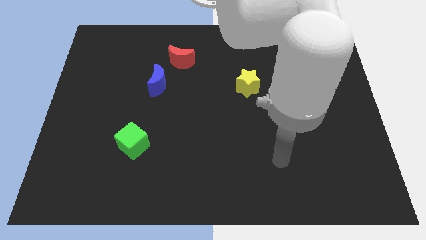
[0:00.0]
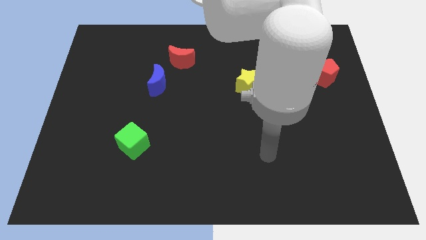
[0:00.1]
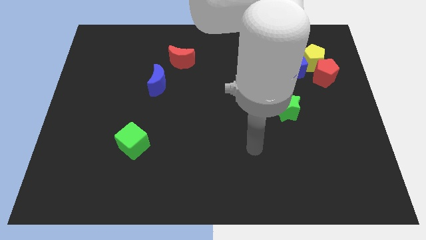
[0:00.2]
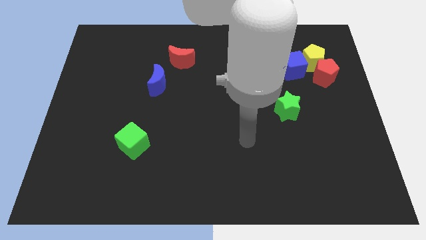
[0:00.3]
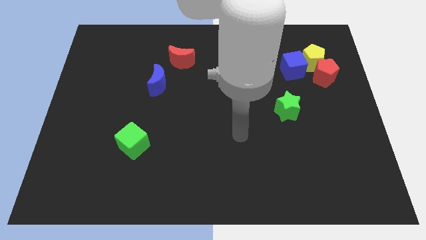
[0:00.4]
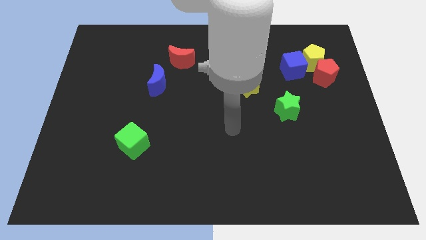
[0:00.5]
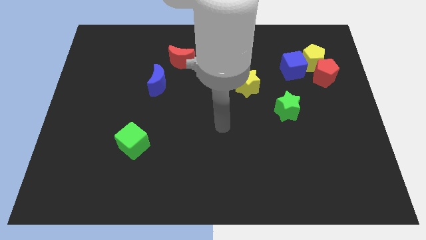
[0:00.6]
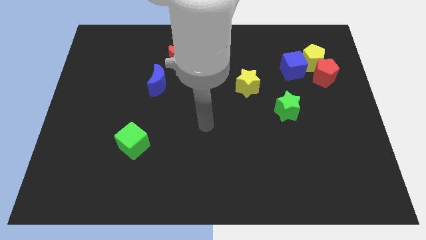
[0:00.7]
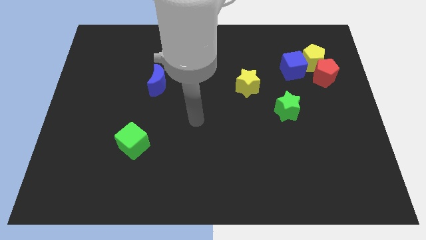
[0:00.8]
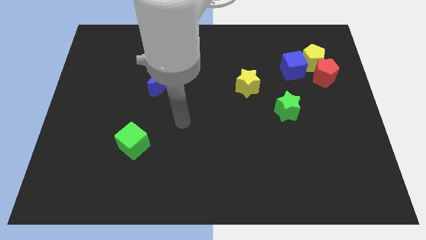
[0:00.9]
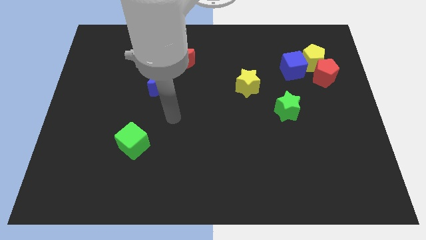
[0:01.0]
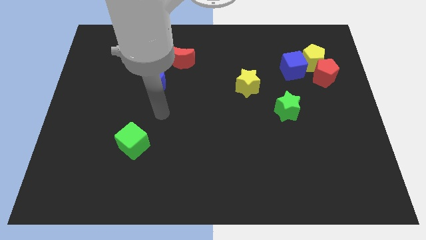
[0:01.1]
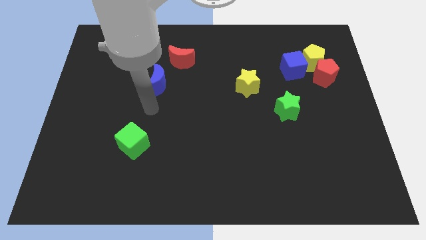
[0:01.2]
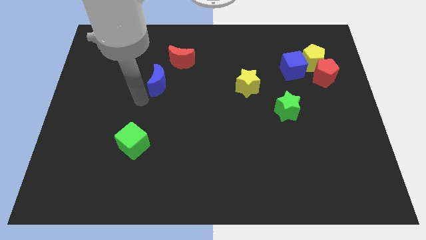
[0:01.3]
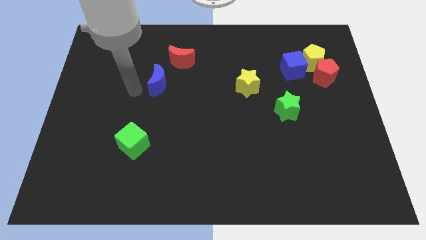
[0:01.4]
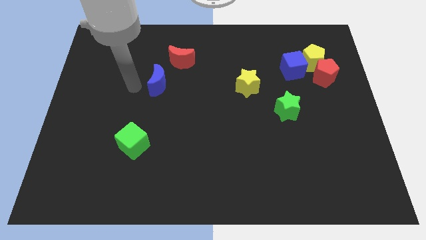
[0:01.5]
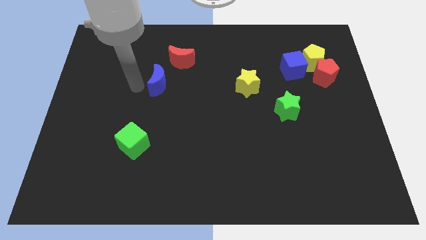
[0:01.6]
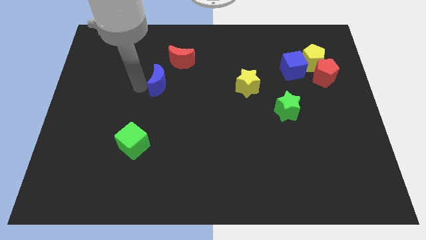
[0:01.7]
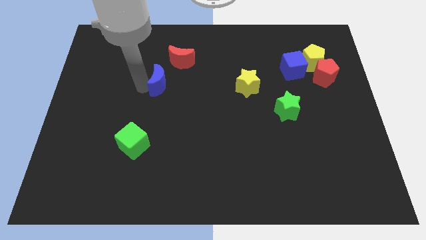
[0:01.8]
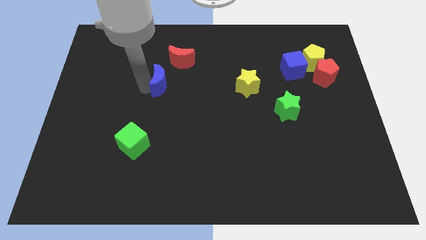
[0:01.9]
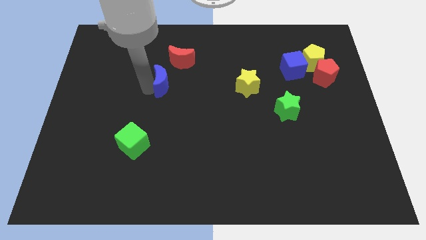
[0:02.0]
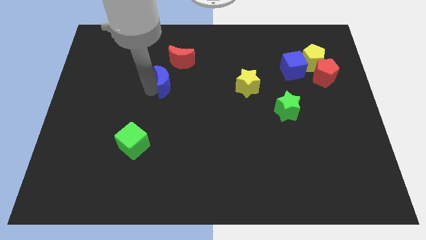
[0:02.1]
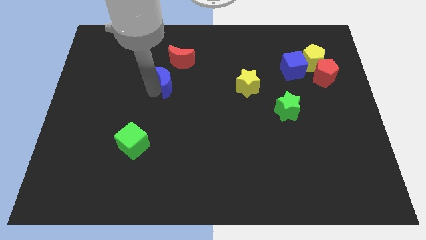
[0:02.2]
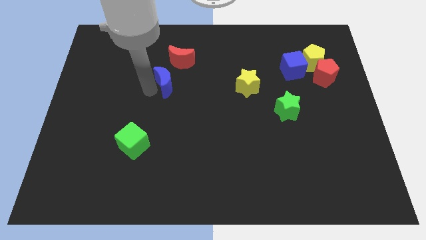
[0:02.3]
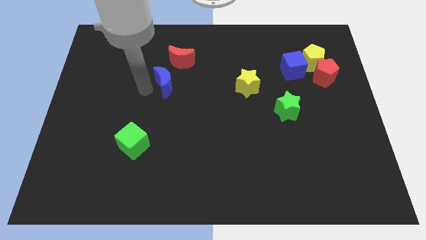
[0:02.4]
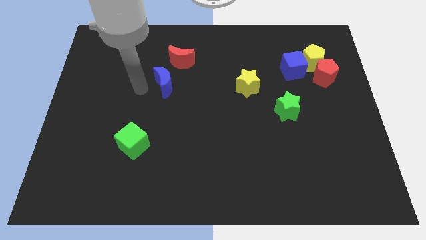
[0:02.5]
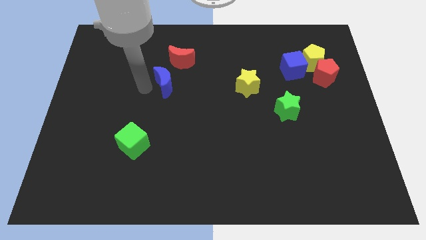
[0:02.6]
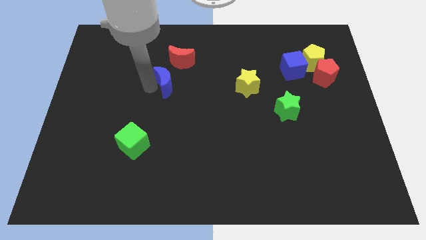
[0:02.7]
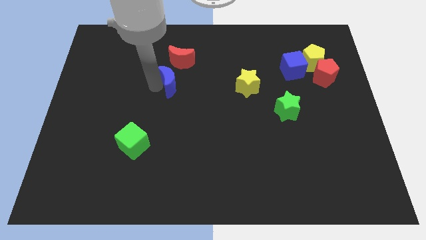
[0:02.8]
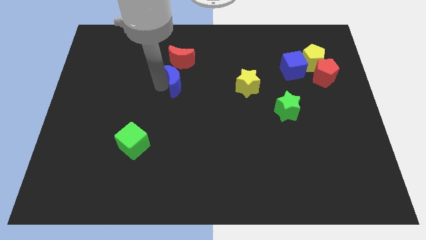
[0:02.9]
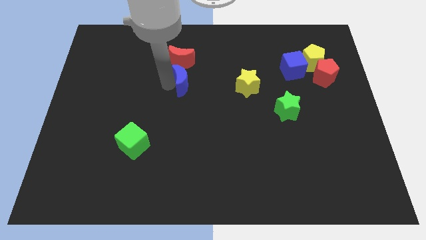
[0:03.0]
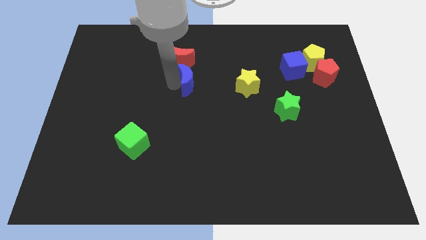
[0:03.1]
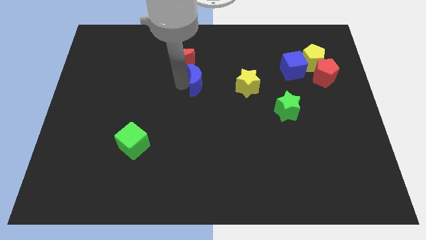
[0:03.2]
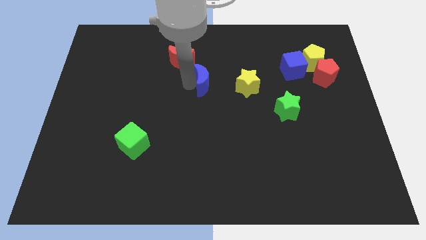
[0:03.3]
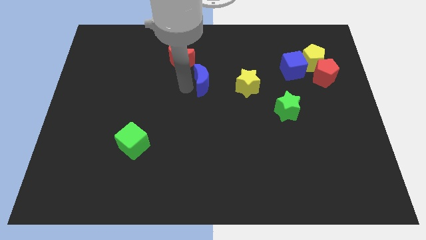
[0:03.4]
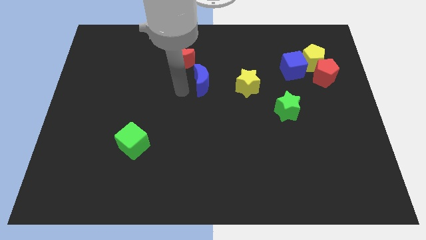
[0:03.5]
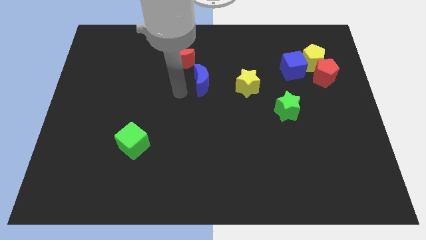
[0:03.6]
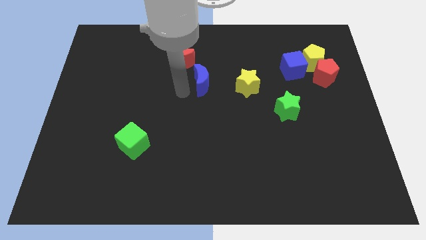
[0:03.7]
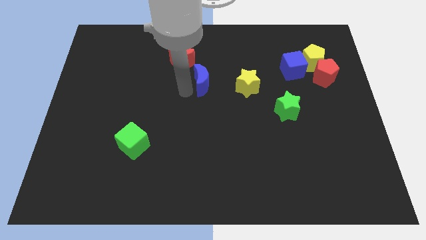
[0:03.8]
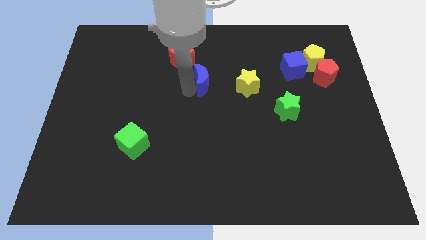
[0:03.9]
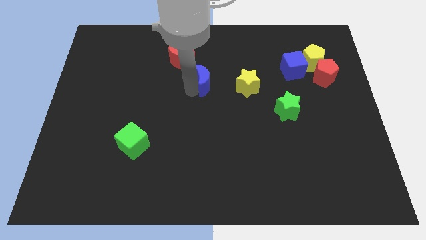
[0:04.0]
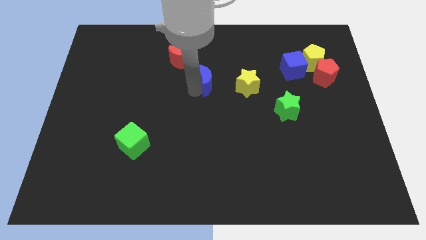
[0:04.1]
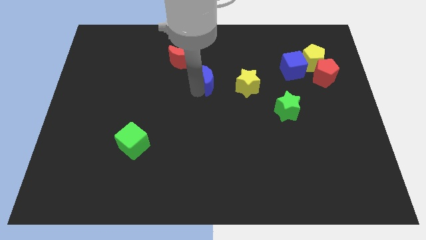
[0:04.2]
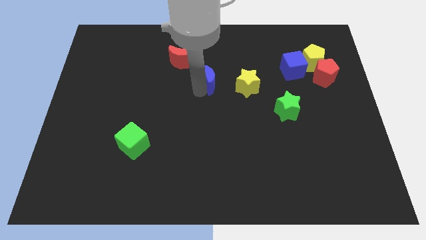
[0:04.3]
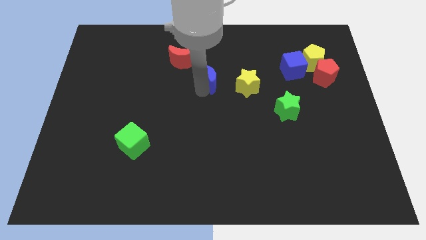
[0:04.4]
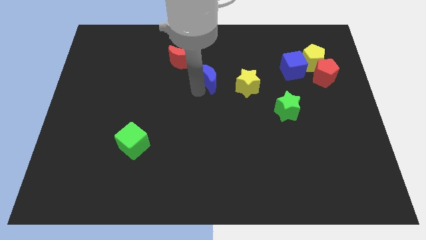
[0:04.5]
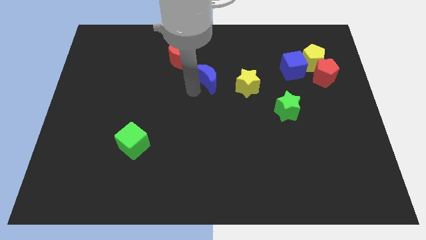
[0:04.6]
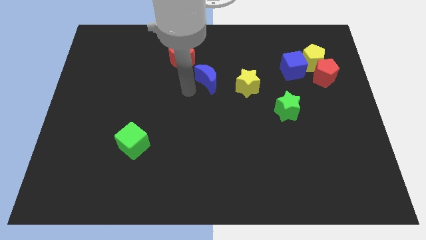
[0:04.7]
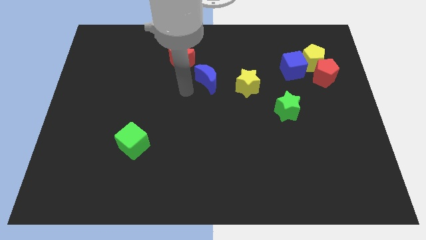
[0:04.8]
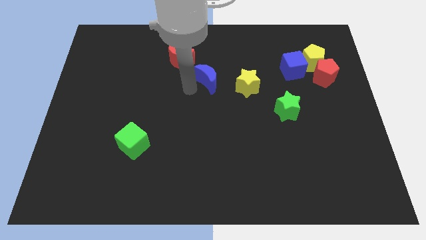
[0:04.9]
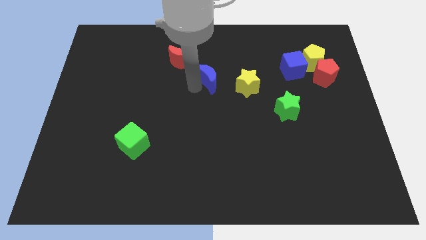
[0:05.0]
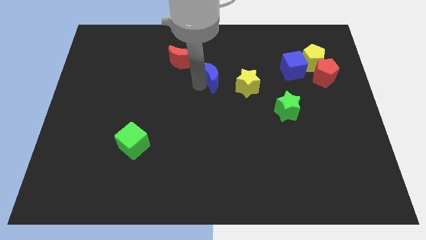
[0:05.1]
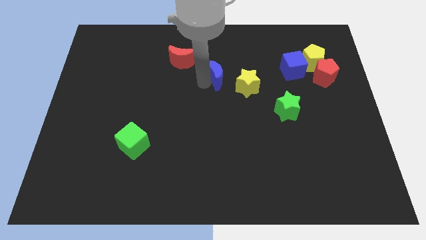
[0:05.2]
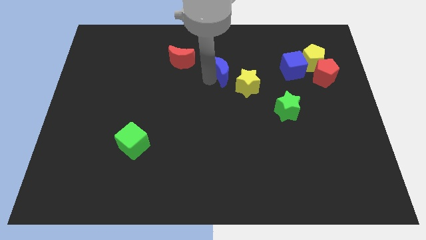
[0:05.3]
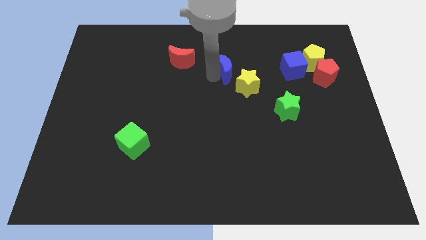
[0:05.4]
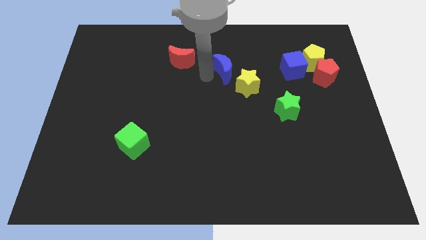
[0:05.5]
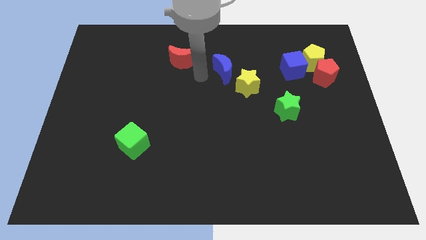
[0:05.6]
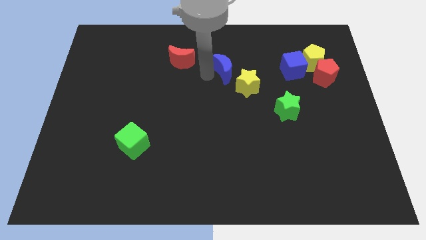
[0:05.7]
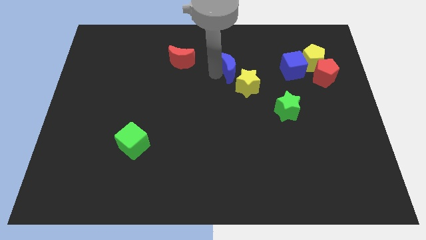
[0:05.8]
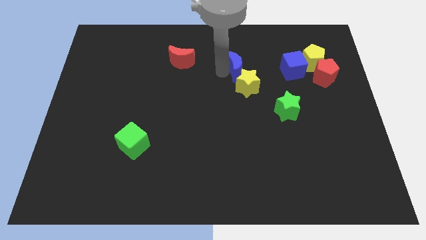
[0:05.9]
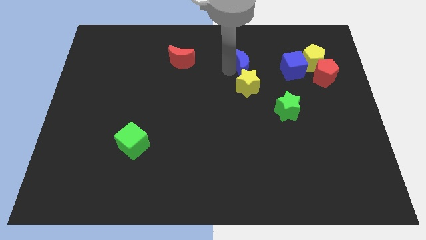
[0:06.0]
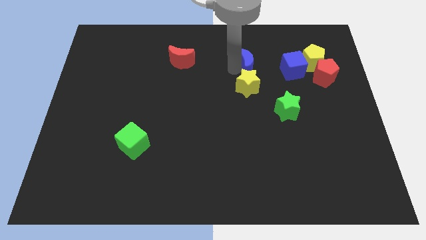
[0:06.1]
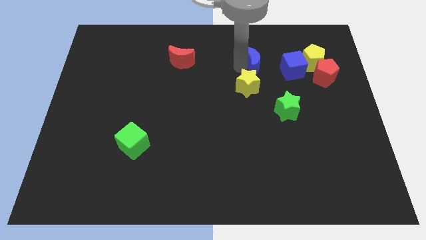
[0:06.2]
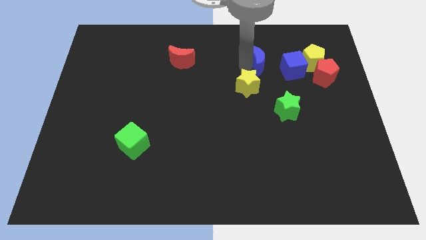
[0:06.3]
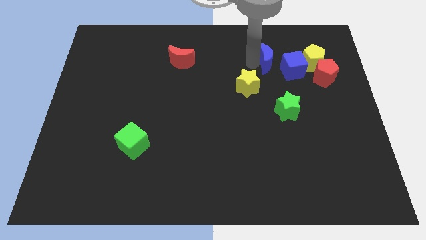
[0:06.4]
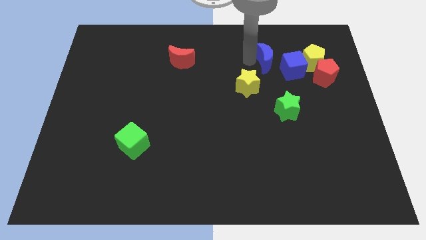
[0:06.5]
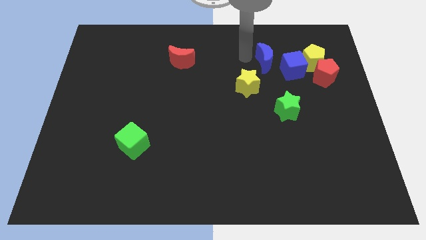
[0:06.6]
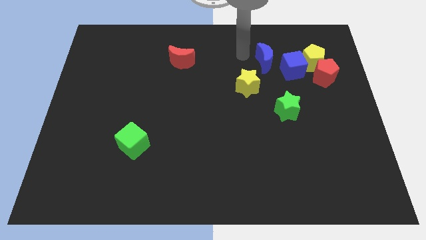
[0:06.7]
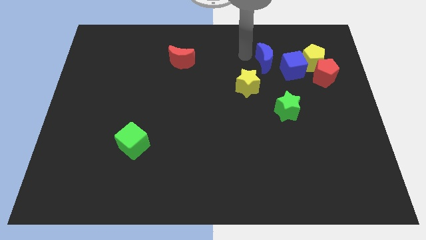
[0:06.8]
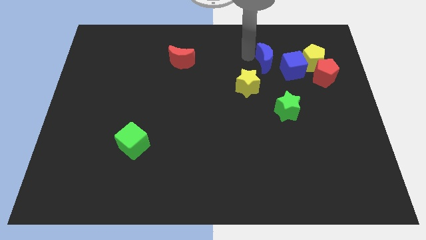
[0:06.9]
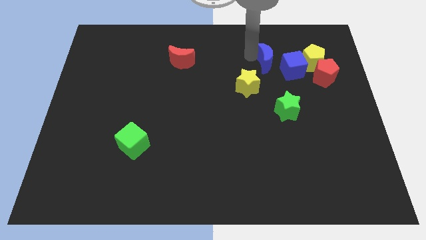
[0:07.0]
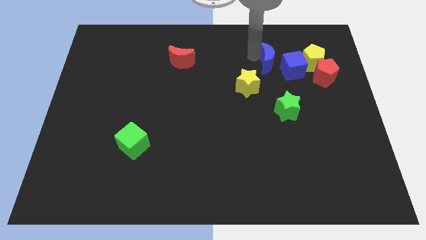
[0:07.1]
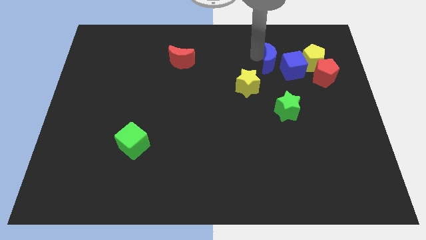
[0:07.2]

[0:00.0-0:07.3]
push the blue moon next to the blue cube
